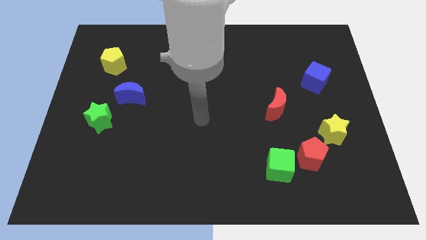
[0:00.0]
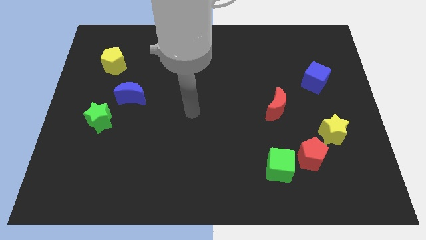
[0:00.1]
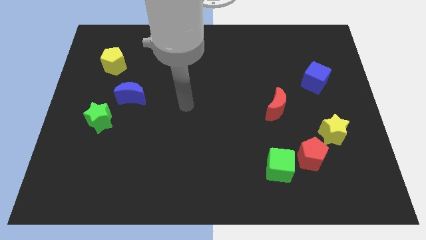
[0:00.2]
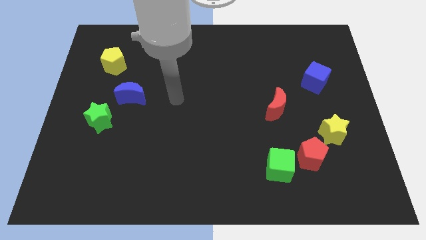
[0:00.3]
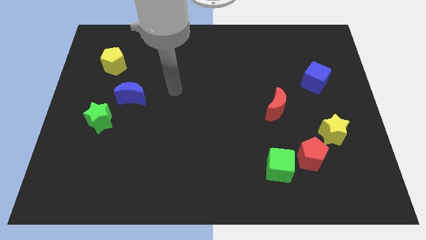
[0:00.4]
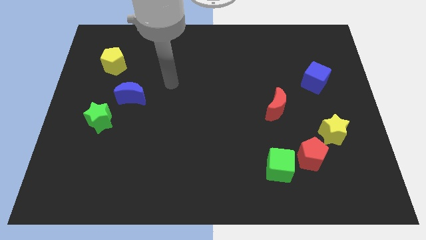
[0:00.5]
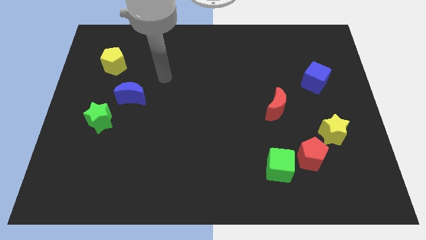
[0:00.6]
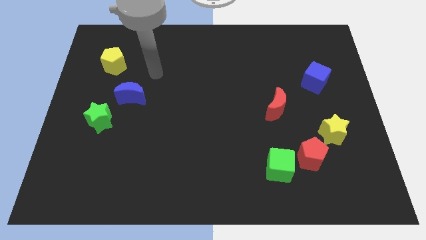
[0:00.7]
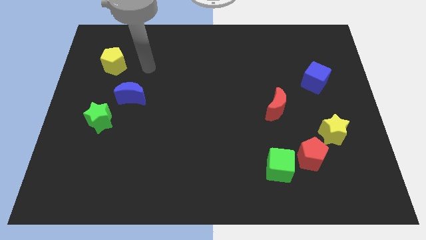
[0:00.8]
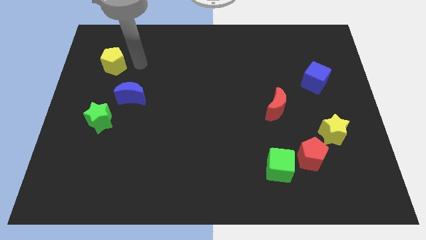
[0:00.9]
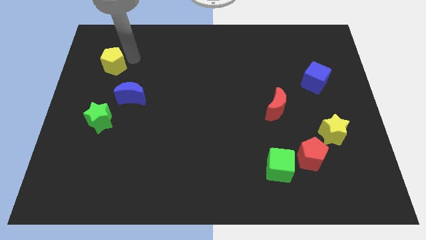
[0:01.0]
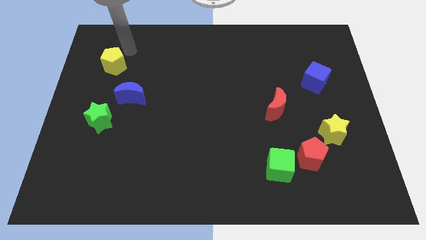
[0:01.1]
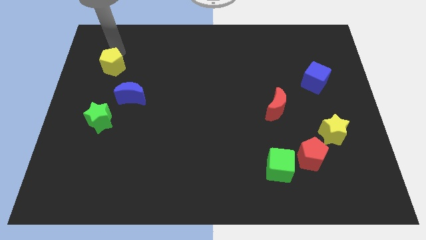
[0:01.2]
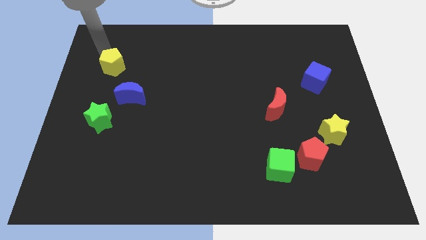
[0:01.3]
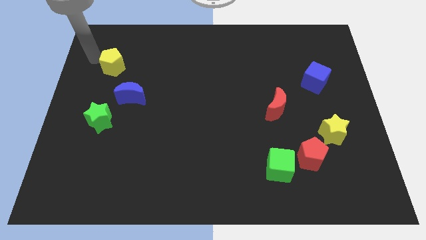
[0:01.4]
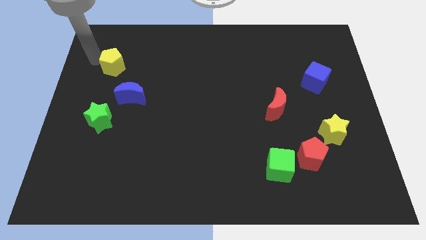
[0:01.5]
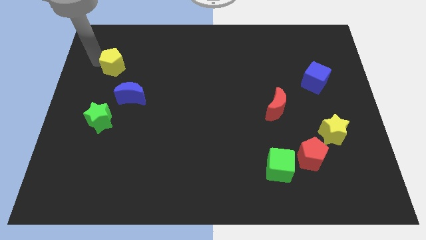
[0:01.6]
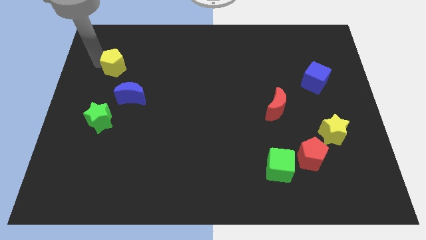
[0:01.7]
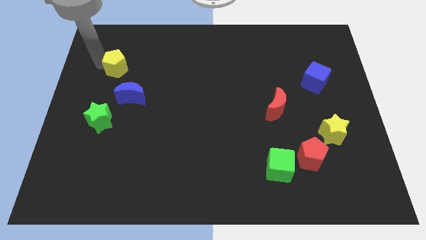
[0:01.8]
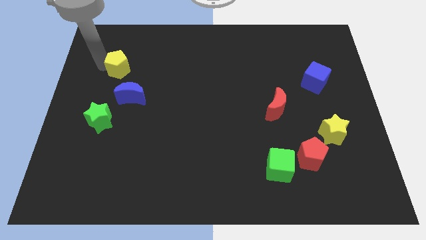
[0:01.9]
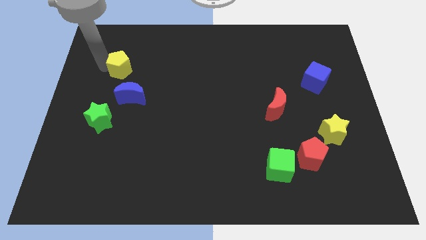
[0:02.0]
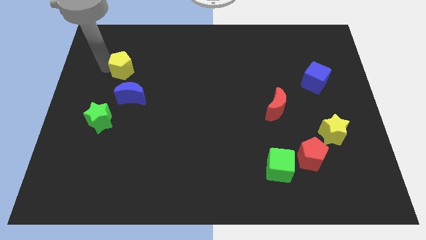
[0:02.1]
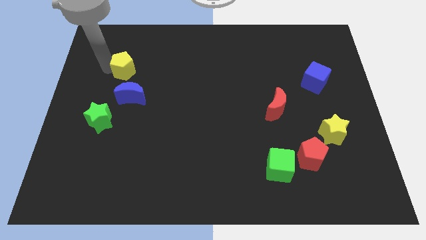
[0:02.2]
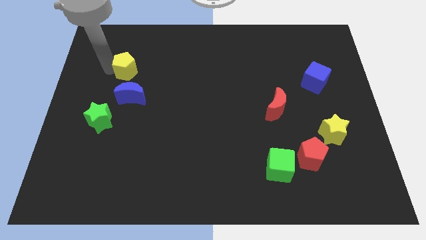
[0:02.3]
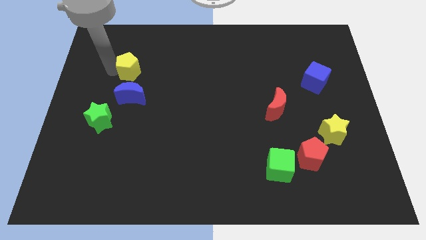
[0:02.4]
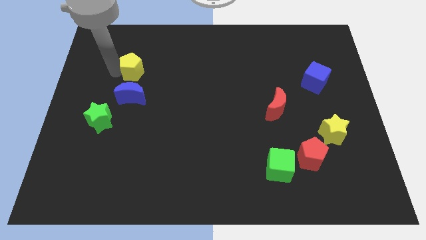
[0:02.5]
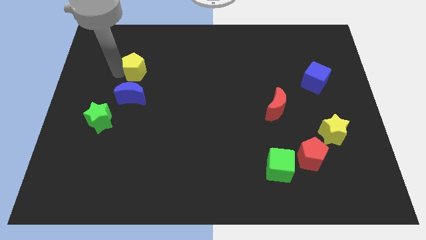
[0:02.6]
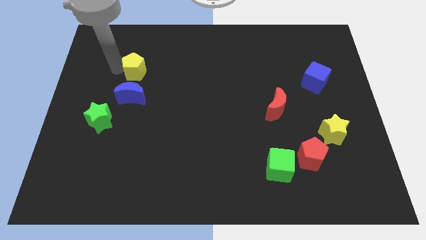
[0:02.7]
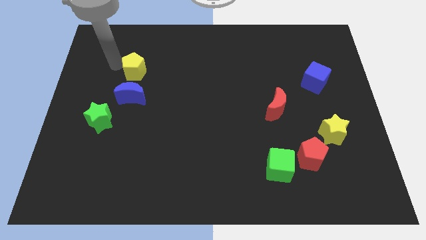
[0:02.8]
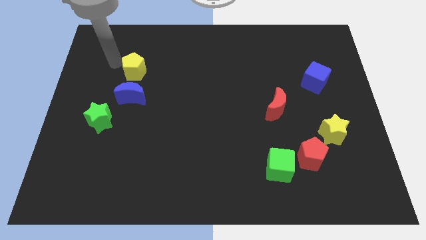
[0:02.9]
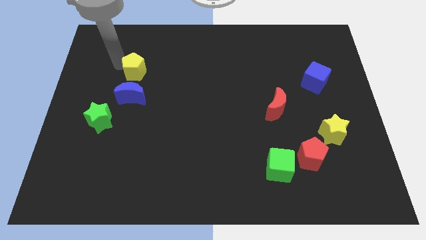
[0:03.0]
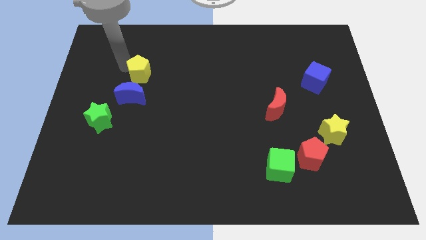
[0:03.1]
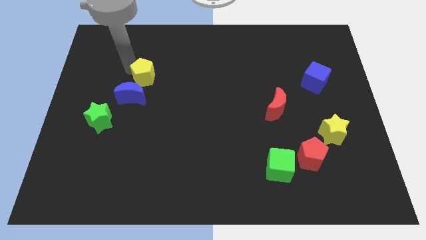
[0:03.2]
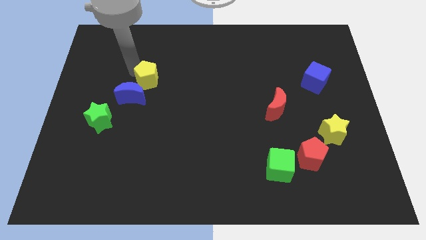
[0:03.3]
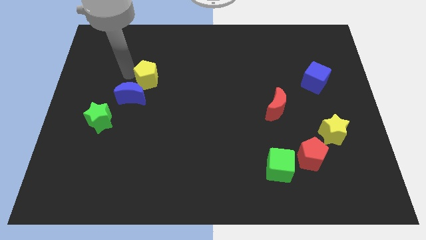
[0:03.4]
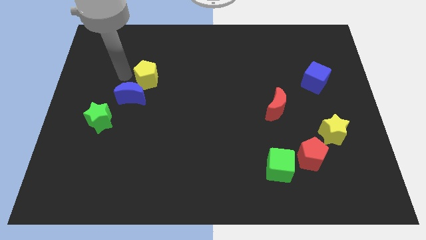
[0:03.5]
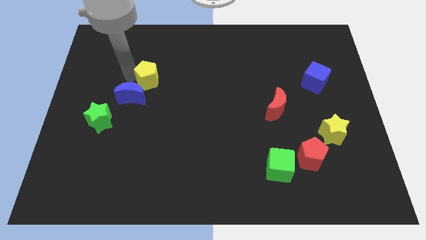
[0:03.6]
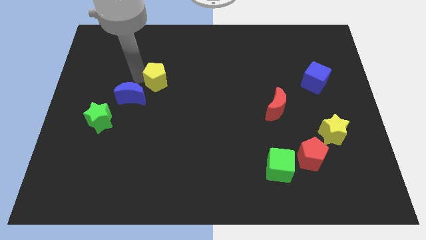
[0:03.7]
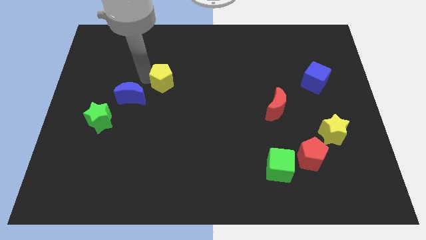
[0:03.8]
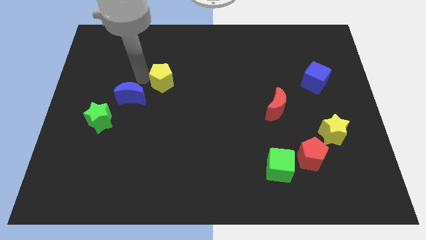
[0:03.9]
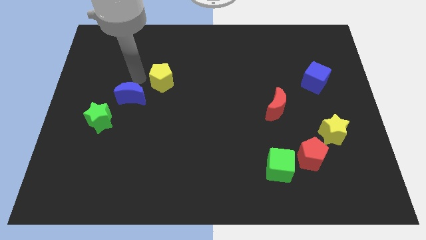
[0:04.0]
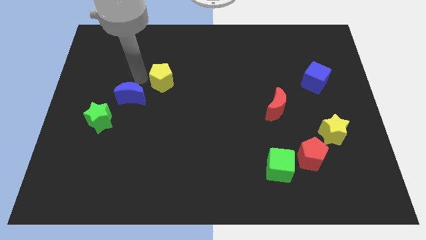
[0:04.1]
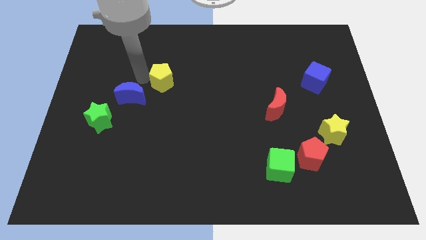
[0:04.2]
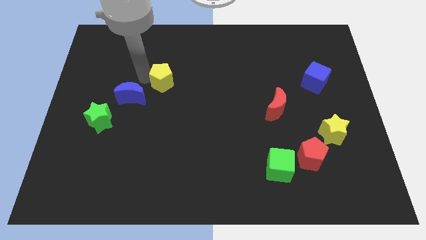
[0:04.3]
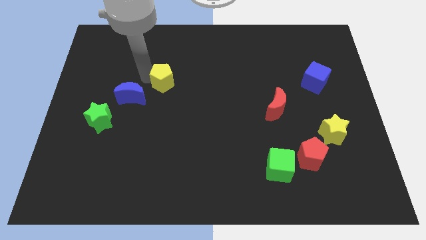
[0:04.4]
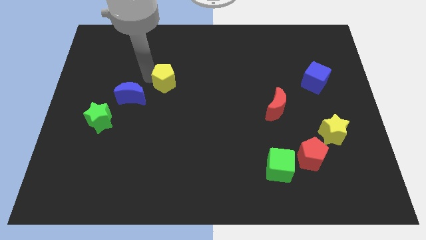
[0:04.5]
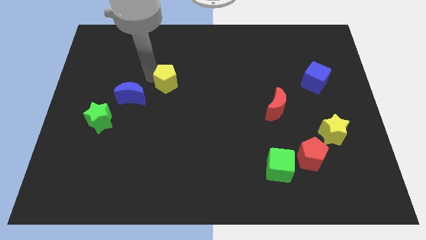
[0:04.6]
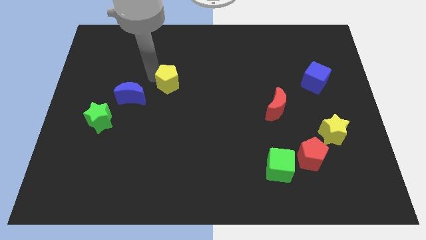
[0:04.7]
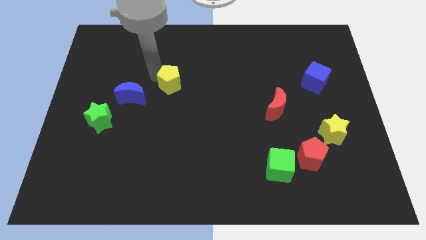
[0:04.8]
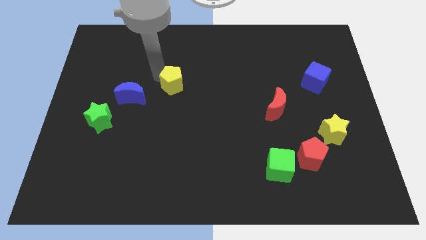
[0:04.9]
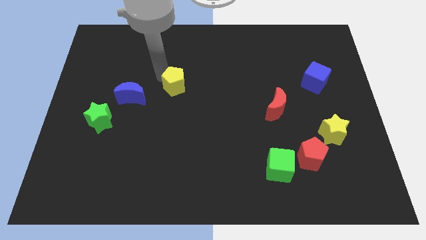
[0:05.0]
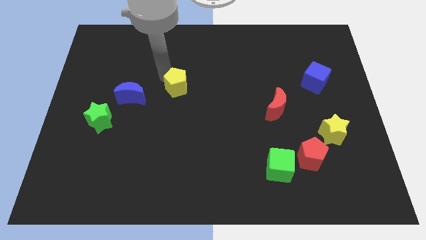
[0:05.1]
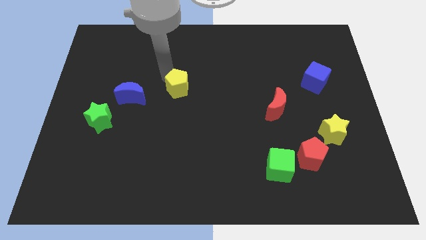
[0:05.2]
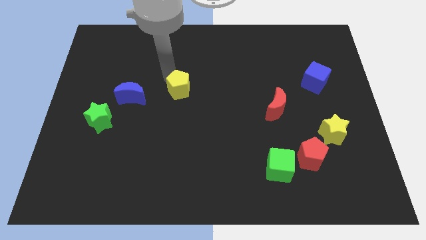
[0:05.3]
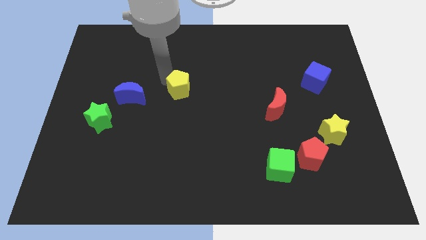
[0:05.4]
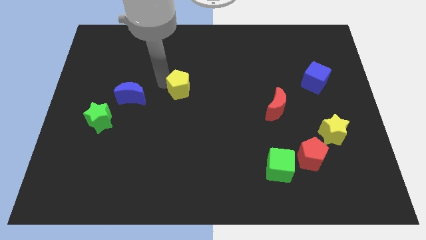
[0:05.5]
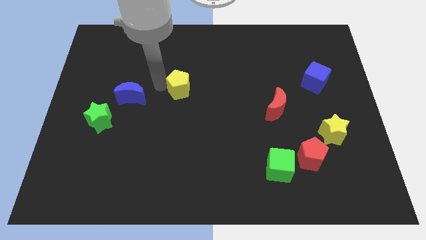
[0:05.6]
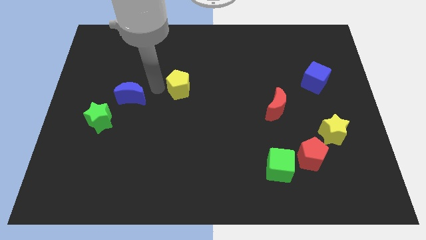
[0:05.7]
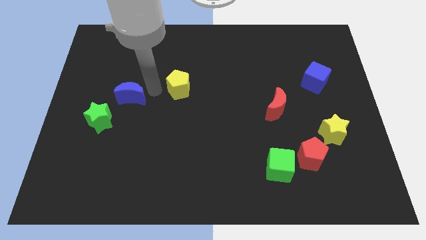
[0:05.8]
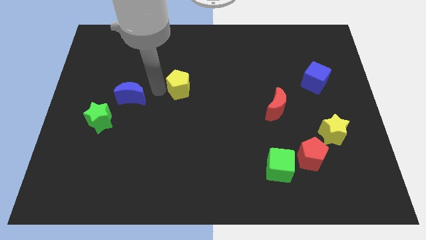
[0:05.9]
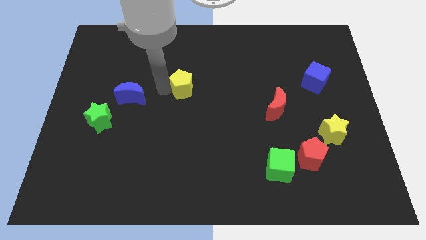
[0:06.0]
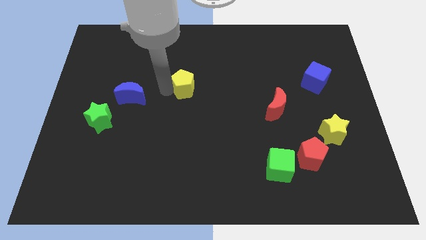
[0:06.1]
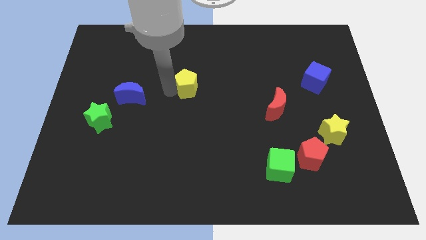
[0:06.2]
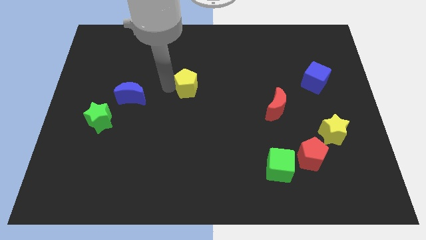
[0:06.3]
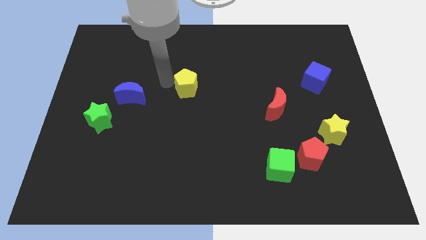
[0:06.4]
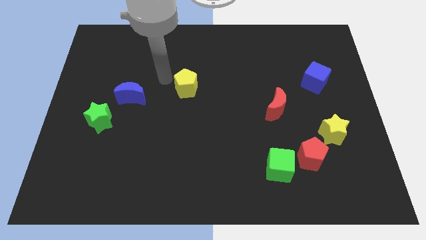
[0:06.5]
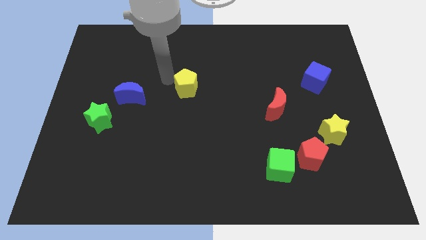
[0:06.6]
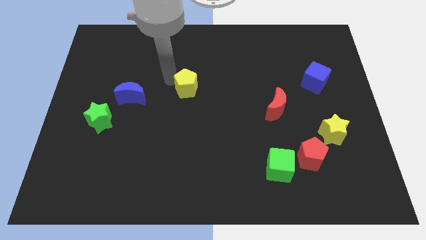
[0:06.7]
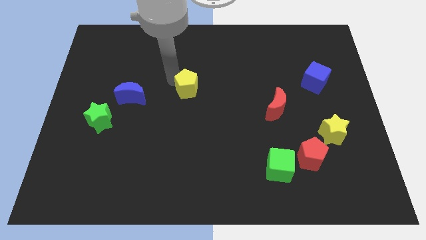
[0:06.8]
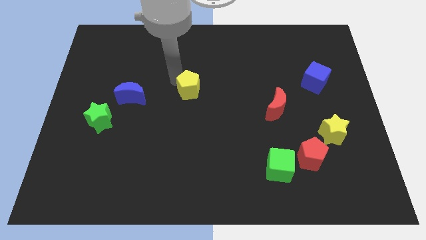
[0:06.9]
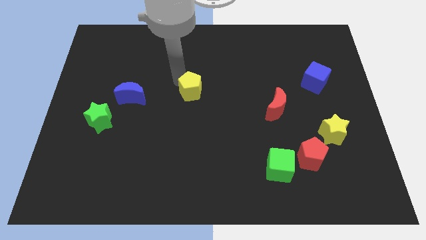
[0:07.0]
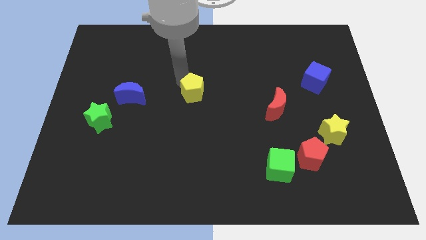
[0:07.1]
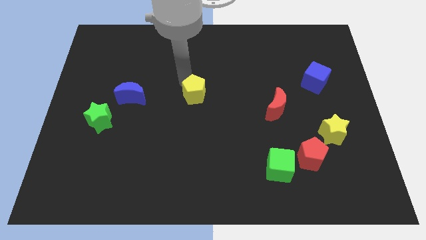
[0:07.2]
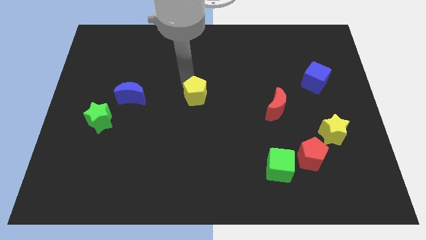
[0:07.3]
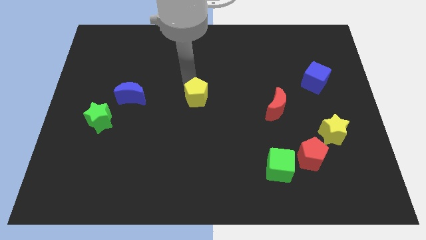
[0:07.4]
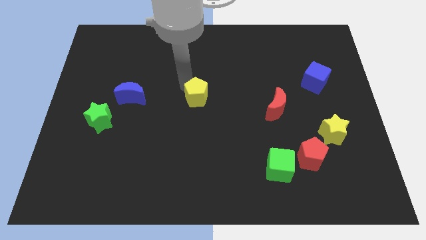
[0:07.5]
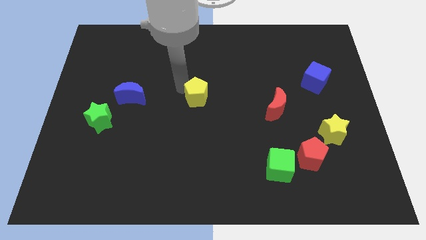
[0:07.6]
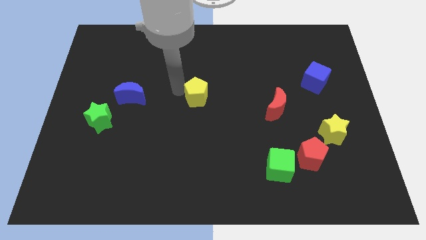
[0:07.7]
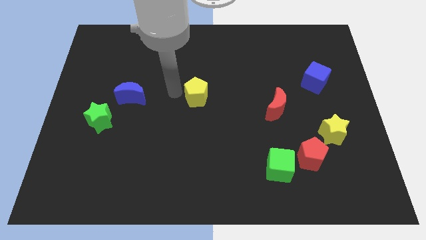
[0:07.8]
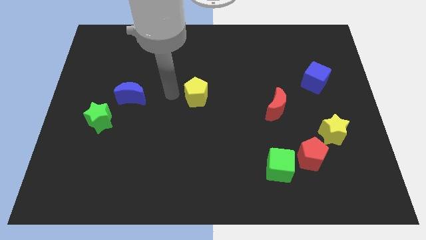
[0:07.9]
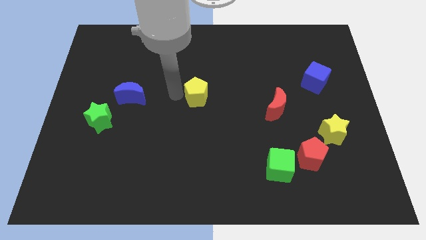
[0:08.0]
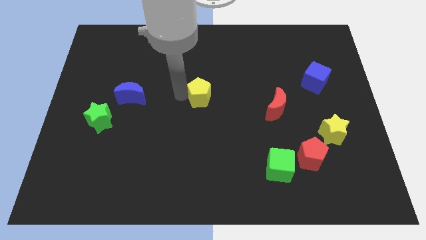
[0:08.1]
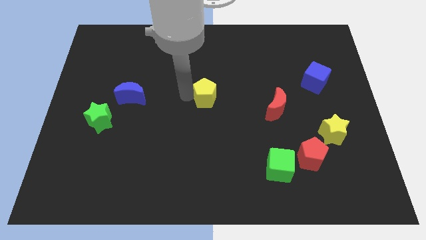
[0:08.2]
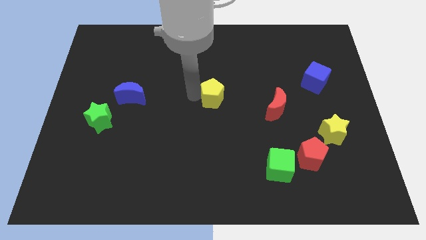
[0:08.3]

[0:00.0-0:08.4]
push the yellow pentagon to the left side of the red moon
